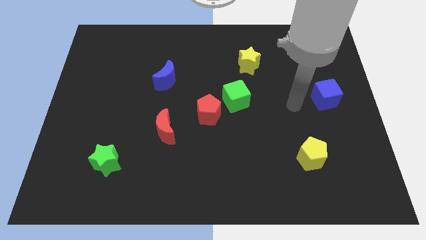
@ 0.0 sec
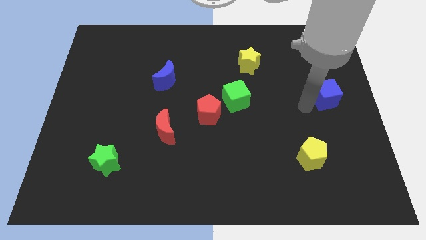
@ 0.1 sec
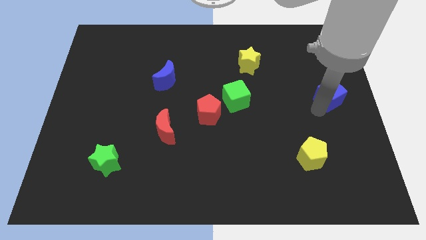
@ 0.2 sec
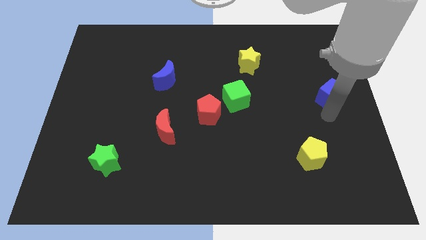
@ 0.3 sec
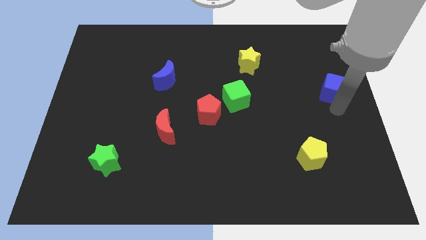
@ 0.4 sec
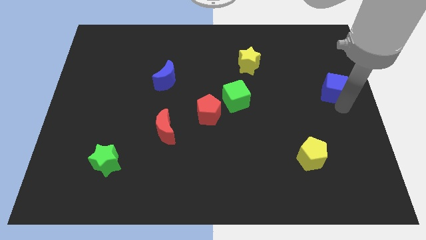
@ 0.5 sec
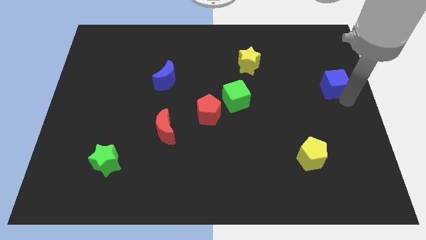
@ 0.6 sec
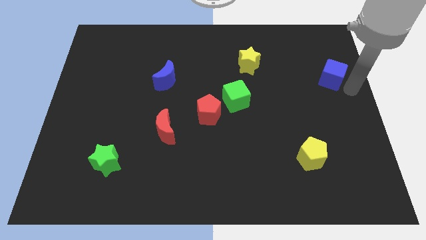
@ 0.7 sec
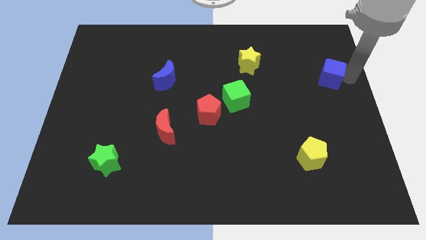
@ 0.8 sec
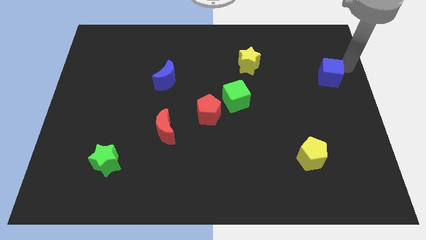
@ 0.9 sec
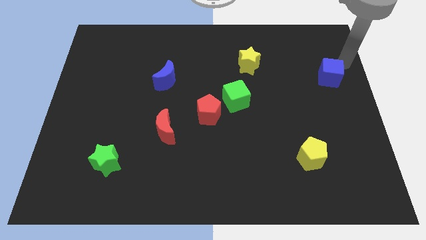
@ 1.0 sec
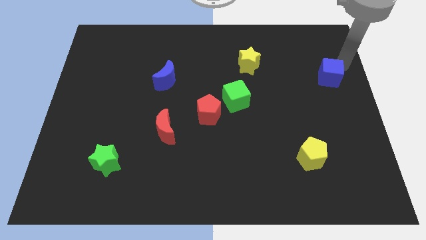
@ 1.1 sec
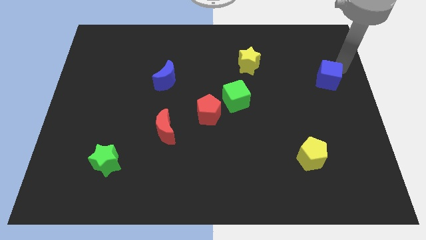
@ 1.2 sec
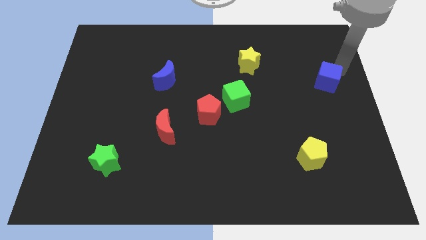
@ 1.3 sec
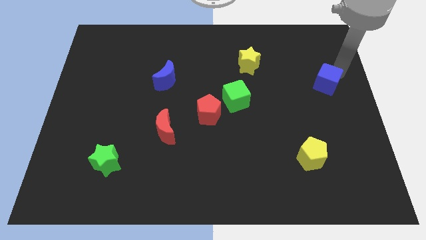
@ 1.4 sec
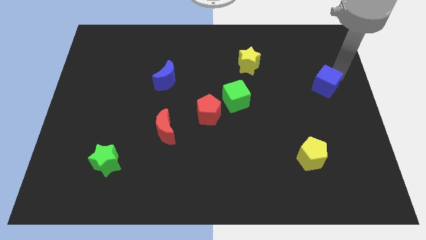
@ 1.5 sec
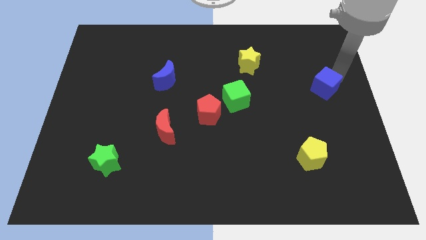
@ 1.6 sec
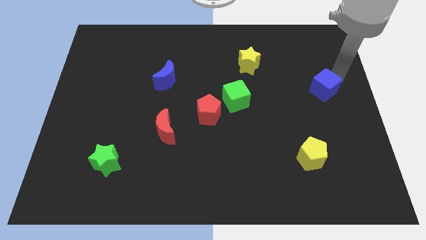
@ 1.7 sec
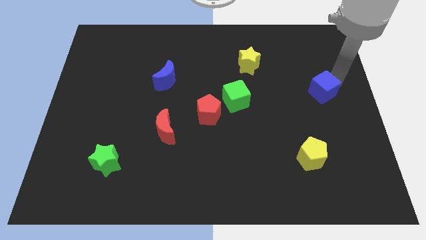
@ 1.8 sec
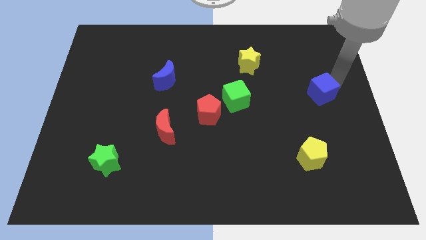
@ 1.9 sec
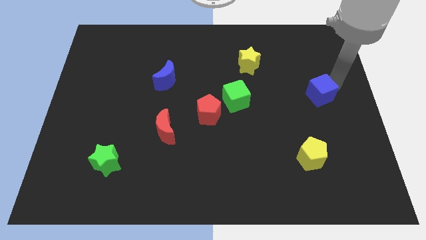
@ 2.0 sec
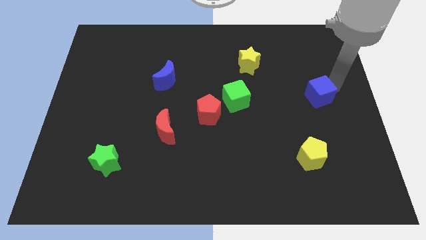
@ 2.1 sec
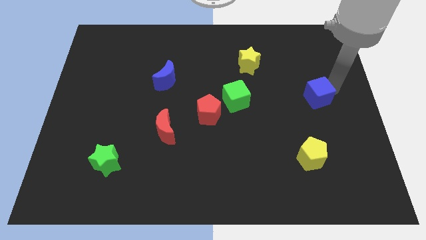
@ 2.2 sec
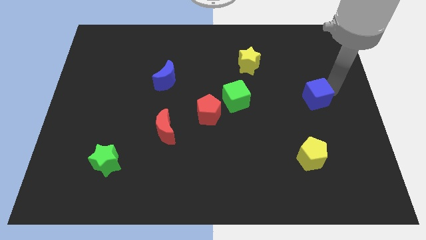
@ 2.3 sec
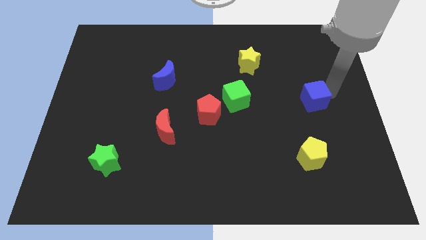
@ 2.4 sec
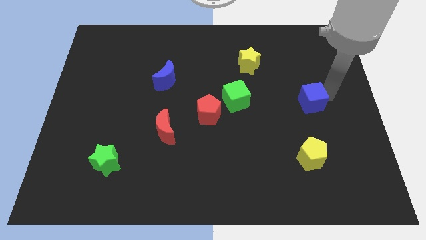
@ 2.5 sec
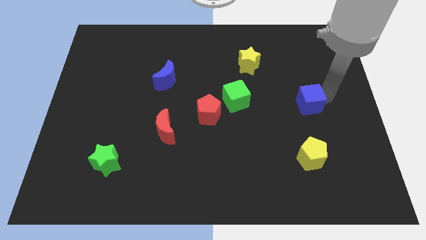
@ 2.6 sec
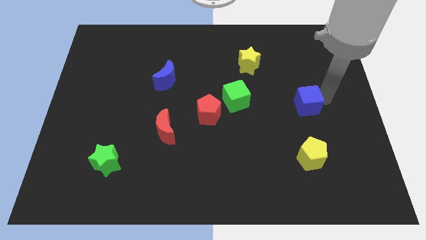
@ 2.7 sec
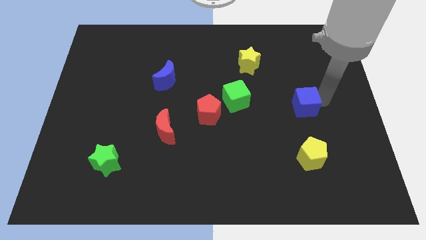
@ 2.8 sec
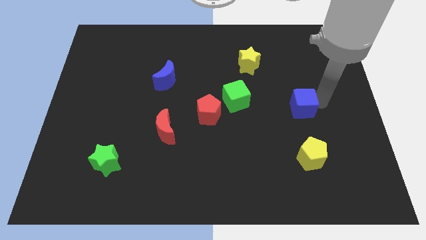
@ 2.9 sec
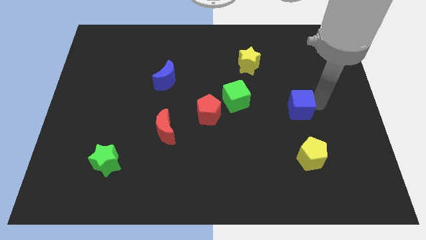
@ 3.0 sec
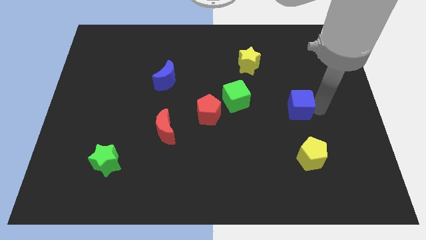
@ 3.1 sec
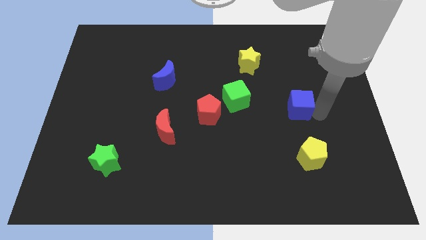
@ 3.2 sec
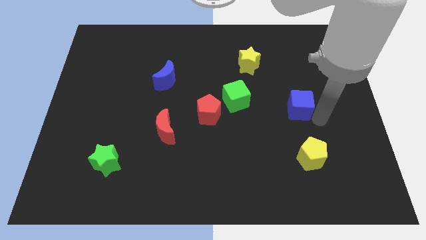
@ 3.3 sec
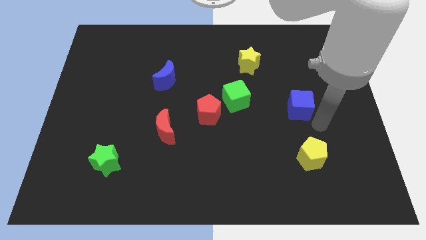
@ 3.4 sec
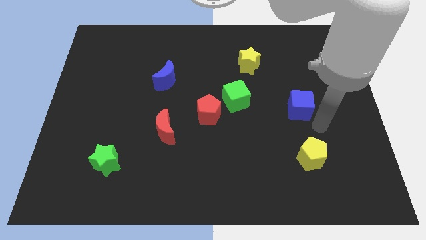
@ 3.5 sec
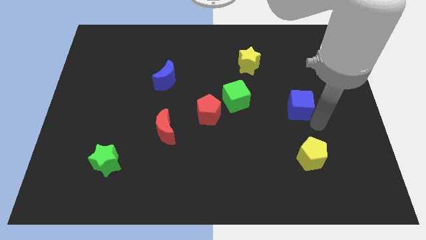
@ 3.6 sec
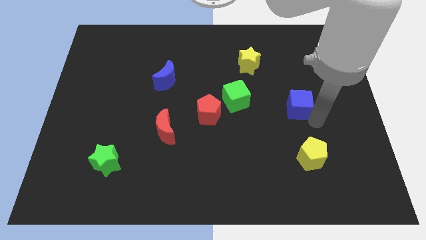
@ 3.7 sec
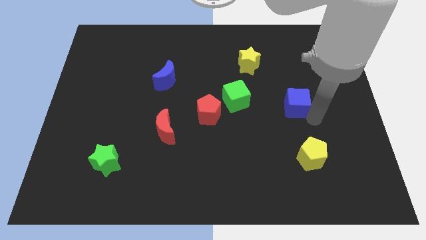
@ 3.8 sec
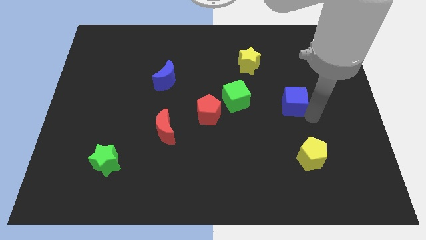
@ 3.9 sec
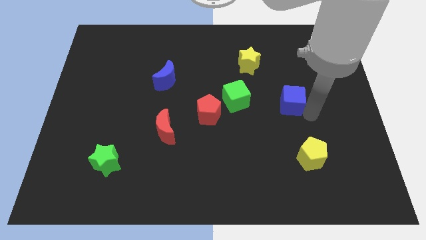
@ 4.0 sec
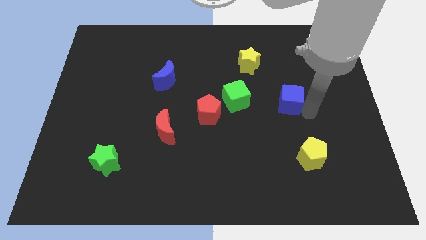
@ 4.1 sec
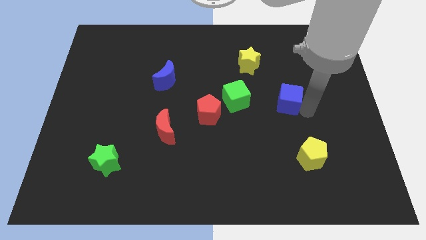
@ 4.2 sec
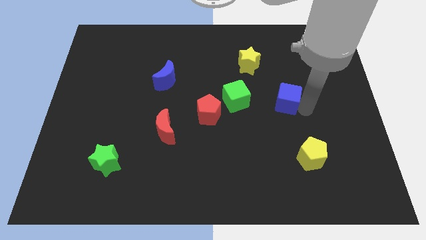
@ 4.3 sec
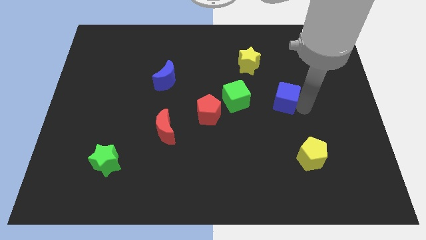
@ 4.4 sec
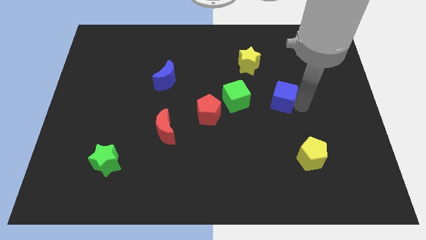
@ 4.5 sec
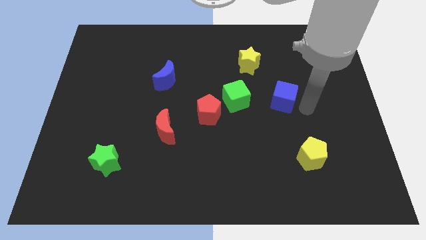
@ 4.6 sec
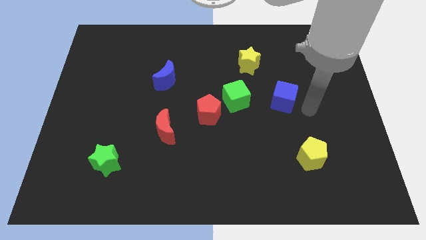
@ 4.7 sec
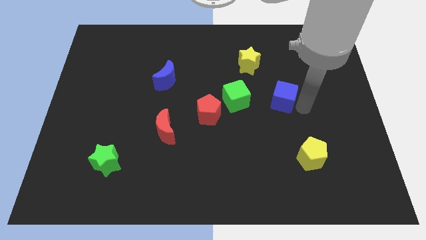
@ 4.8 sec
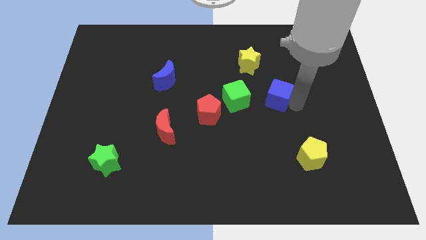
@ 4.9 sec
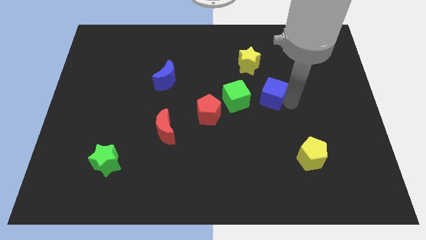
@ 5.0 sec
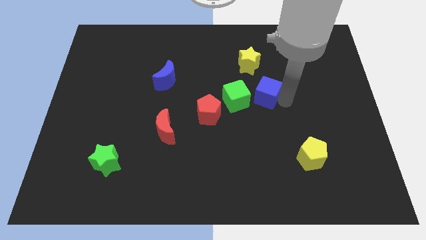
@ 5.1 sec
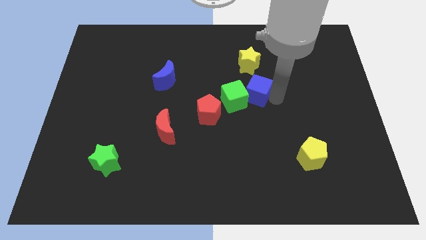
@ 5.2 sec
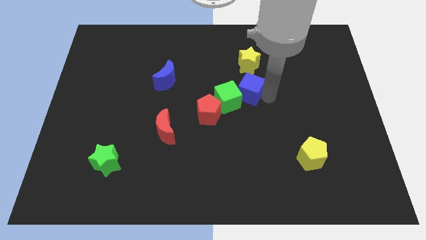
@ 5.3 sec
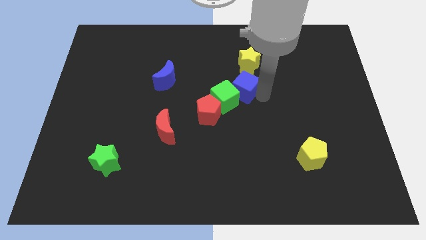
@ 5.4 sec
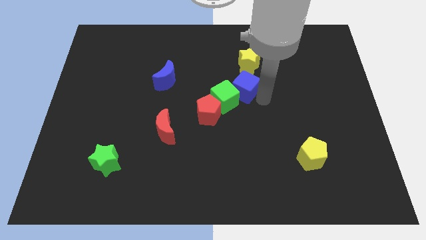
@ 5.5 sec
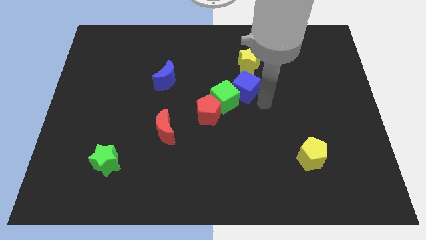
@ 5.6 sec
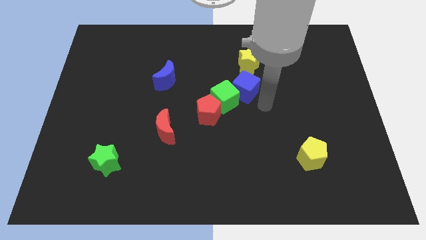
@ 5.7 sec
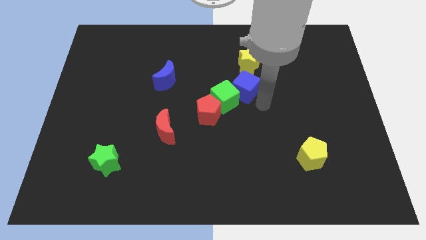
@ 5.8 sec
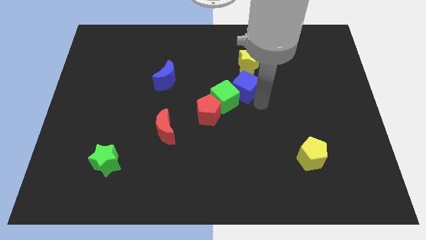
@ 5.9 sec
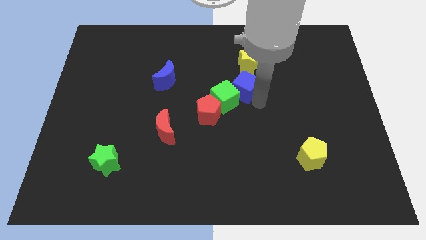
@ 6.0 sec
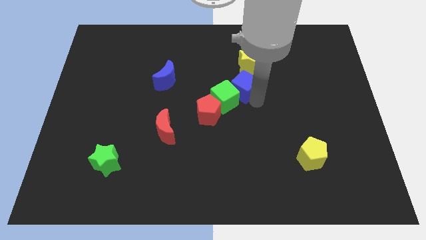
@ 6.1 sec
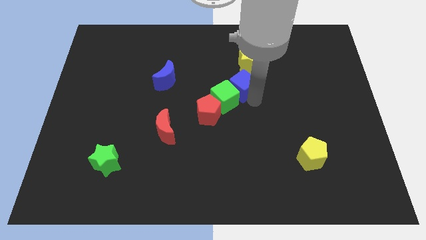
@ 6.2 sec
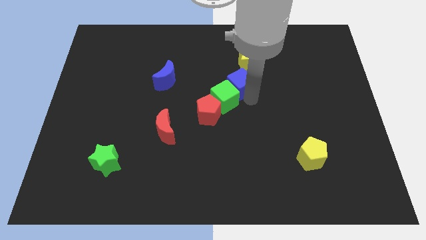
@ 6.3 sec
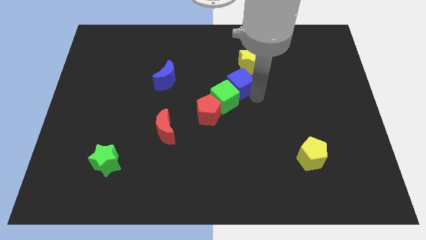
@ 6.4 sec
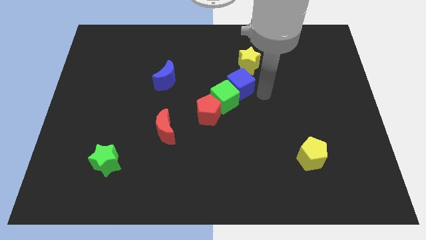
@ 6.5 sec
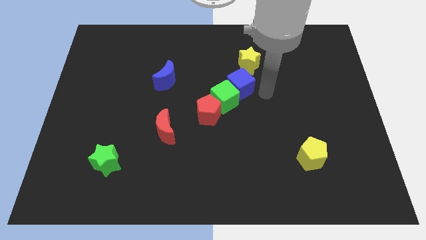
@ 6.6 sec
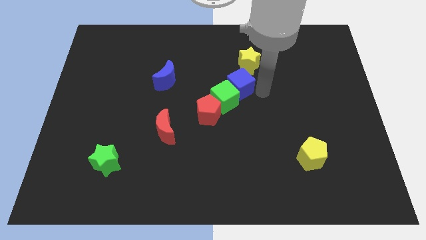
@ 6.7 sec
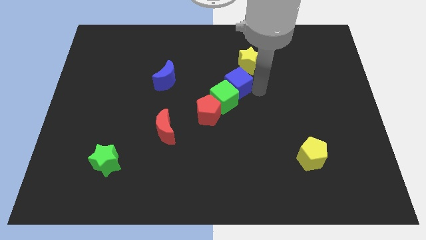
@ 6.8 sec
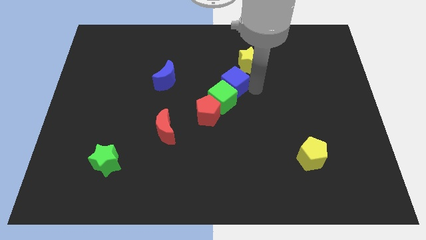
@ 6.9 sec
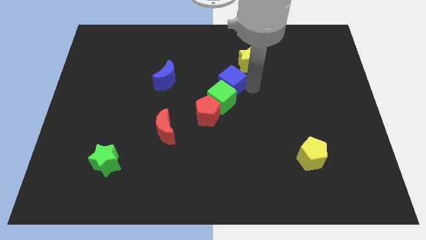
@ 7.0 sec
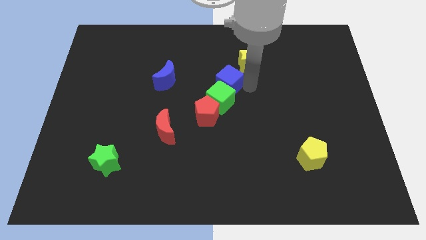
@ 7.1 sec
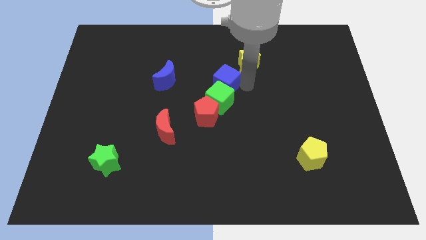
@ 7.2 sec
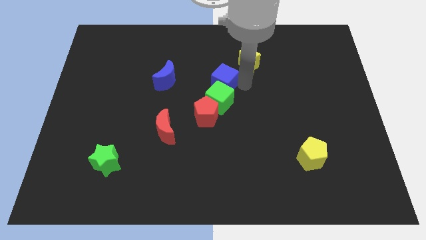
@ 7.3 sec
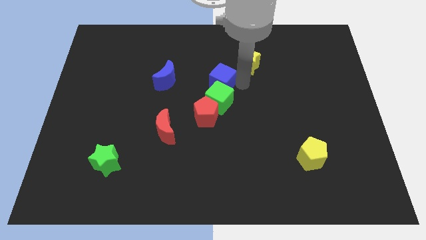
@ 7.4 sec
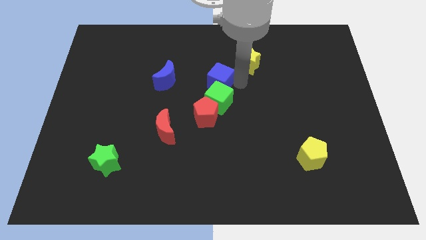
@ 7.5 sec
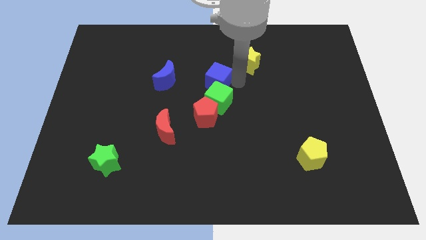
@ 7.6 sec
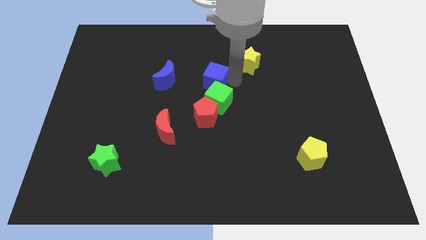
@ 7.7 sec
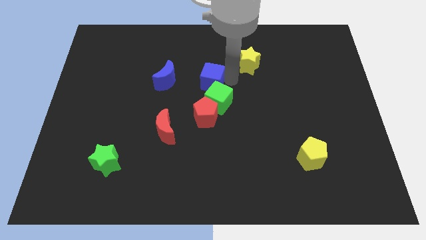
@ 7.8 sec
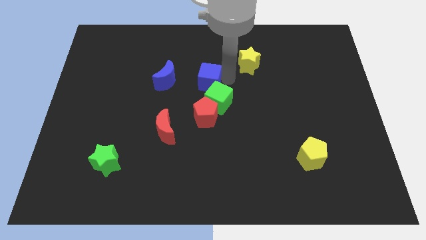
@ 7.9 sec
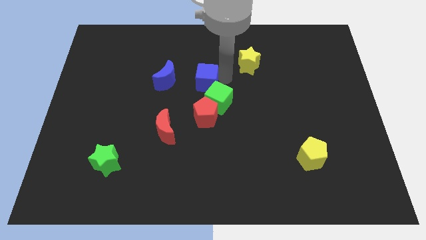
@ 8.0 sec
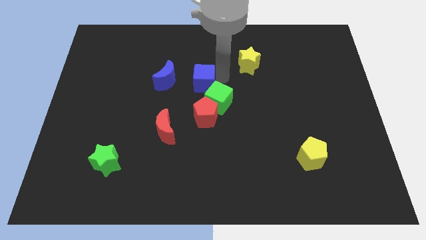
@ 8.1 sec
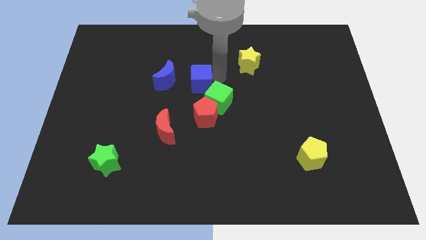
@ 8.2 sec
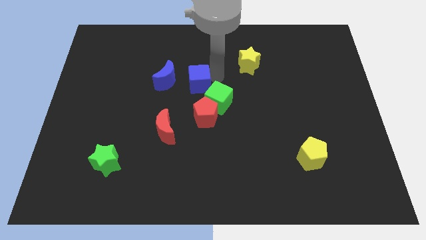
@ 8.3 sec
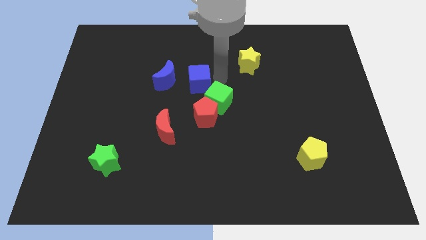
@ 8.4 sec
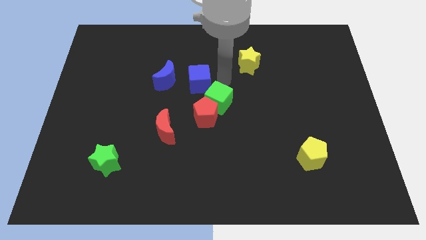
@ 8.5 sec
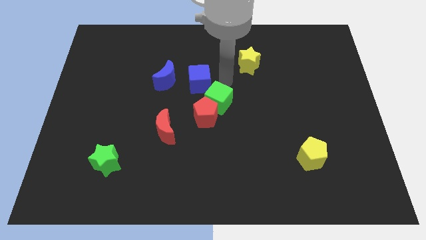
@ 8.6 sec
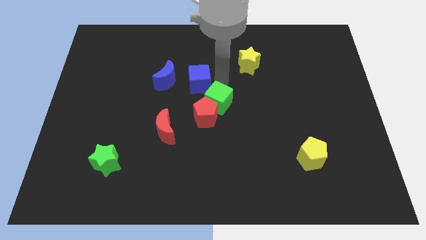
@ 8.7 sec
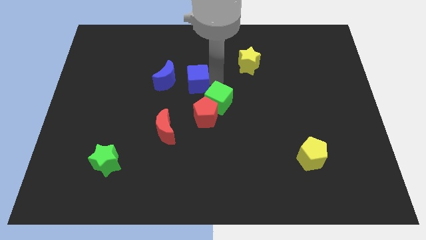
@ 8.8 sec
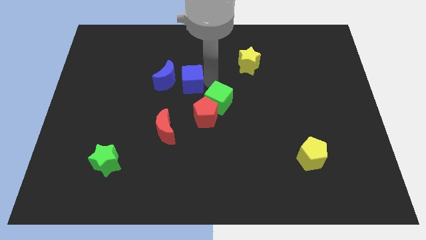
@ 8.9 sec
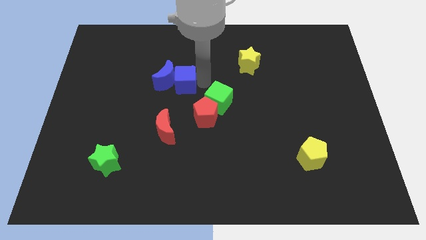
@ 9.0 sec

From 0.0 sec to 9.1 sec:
slide the blue cube to the blue moon
